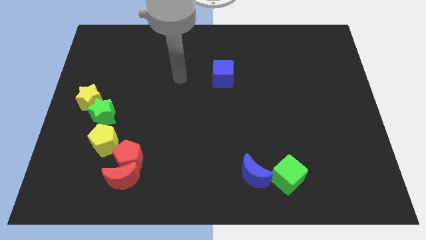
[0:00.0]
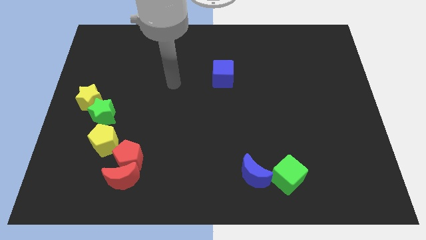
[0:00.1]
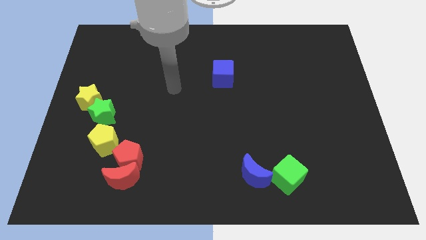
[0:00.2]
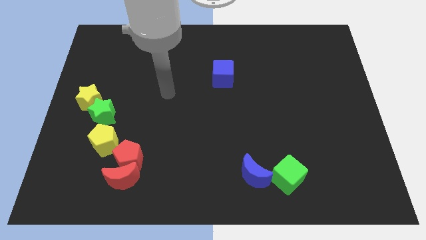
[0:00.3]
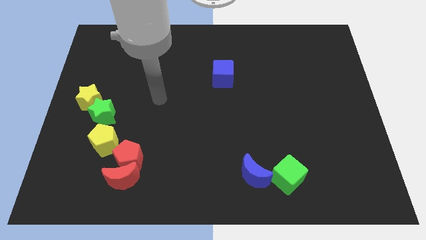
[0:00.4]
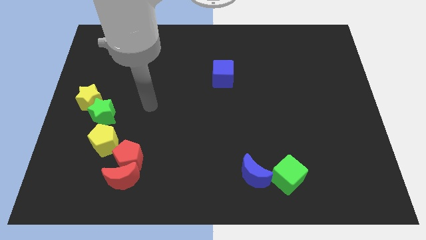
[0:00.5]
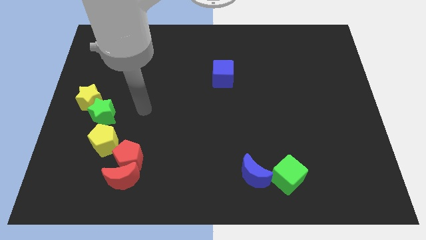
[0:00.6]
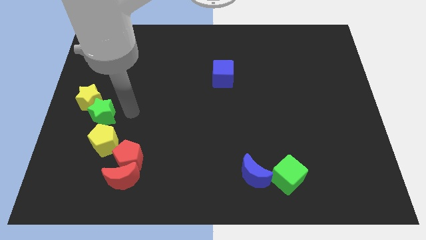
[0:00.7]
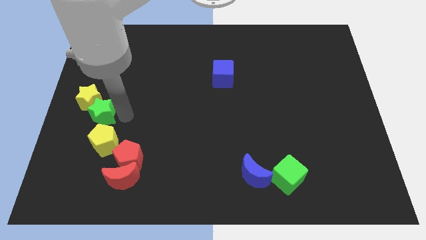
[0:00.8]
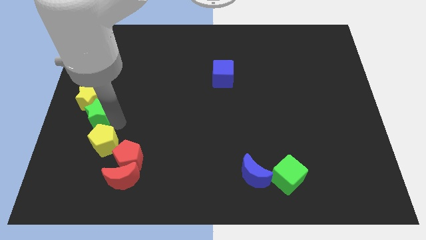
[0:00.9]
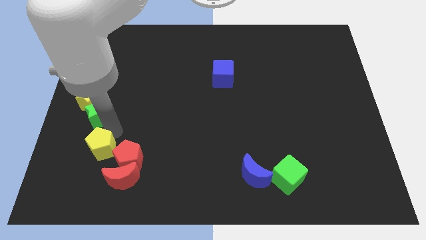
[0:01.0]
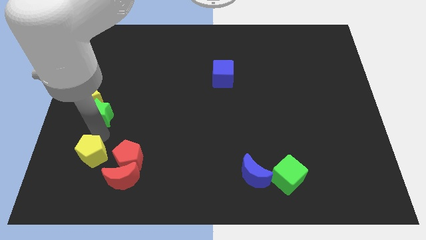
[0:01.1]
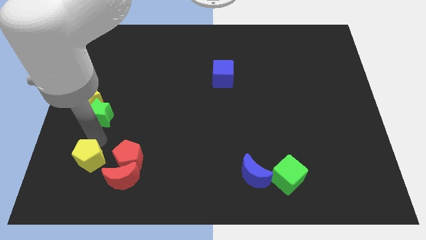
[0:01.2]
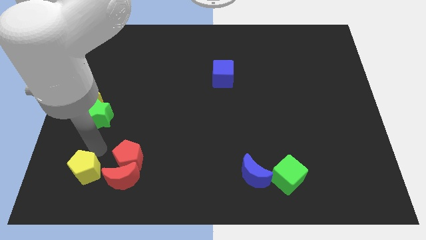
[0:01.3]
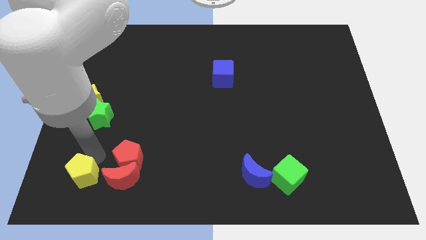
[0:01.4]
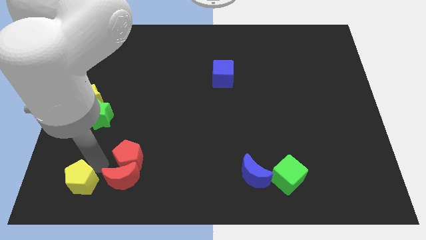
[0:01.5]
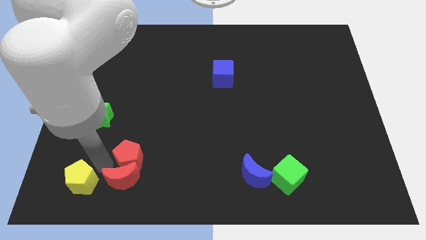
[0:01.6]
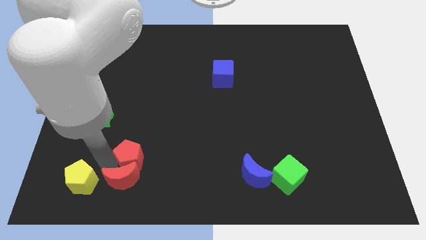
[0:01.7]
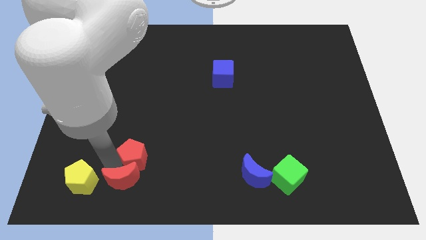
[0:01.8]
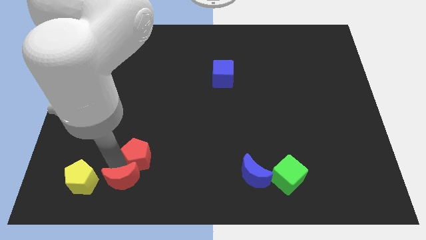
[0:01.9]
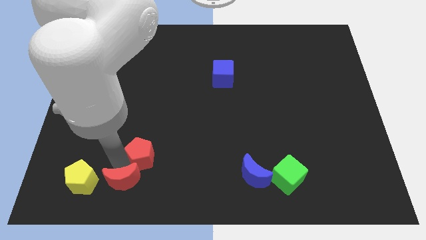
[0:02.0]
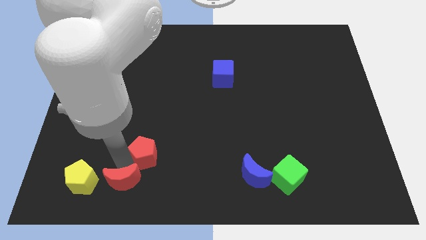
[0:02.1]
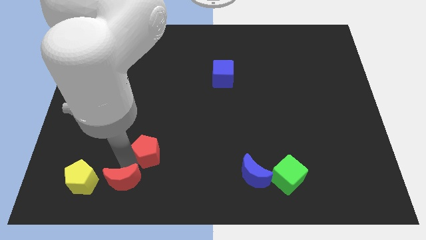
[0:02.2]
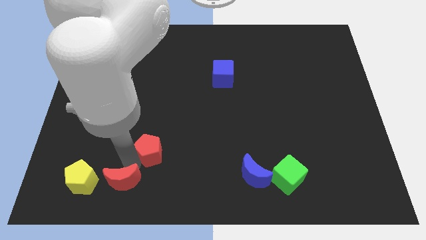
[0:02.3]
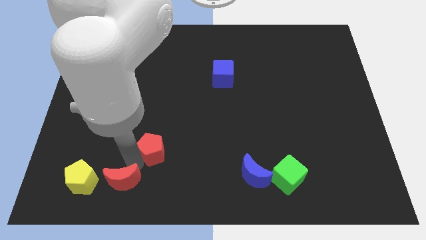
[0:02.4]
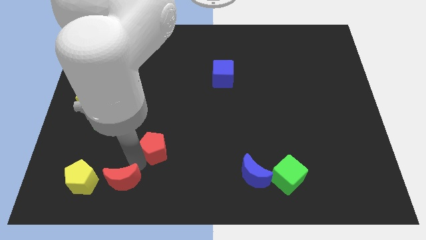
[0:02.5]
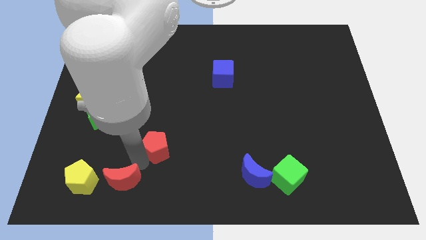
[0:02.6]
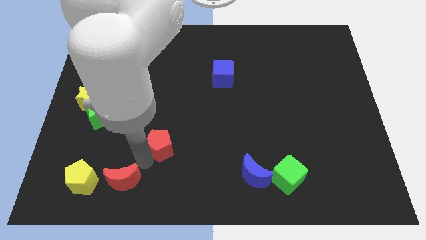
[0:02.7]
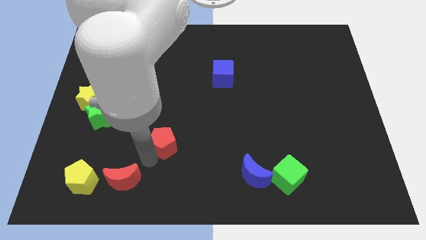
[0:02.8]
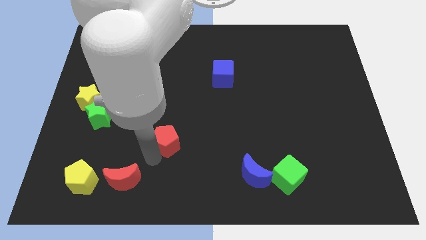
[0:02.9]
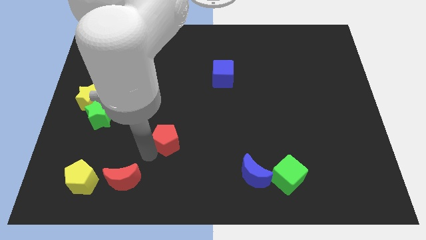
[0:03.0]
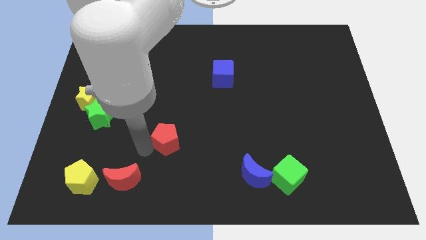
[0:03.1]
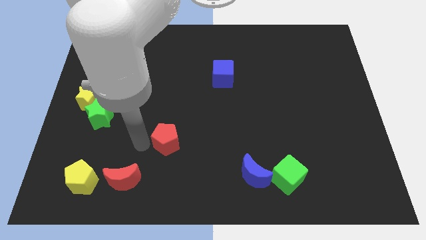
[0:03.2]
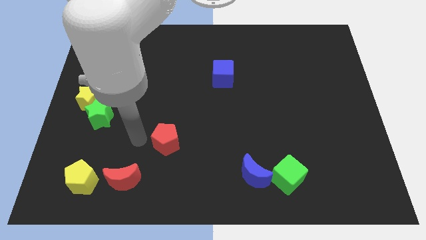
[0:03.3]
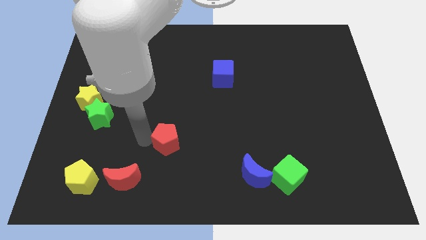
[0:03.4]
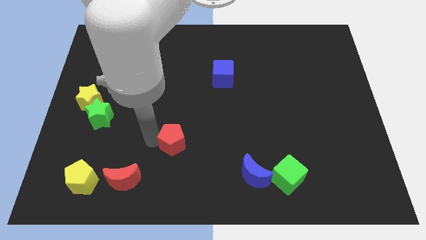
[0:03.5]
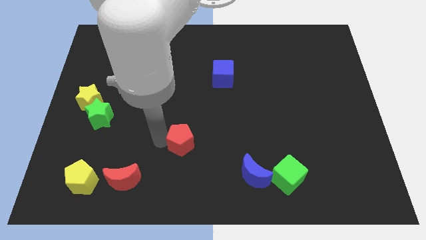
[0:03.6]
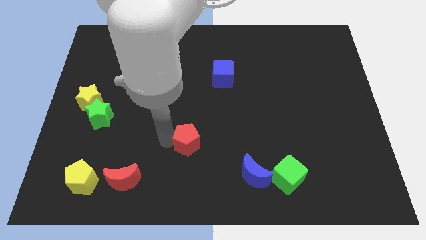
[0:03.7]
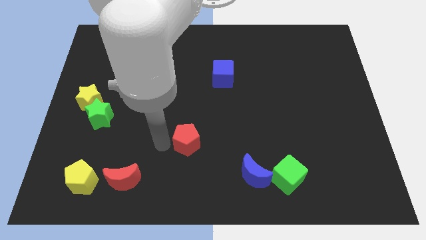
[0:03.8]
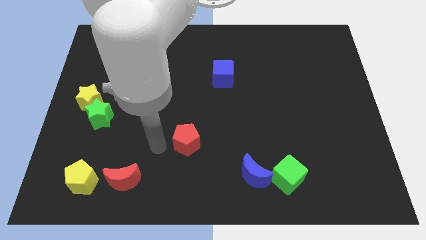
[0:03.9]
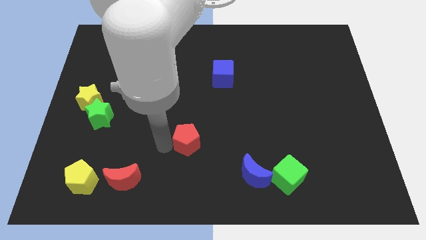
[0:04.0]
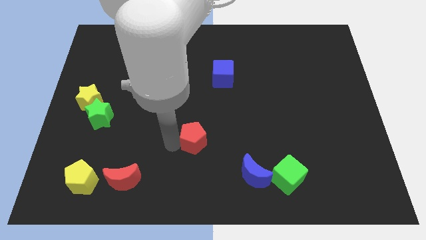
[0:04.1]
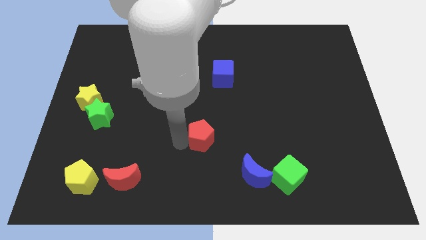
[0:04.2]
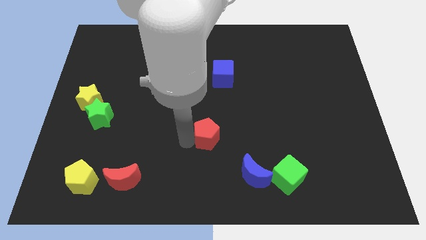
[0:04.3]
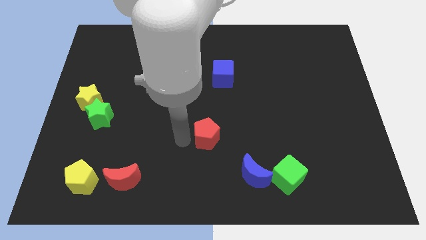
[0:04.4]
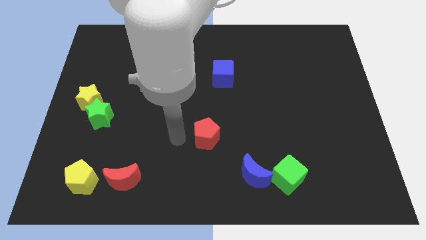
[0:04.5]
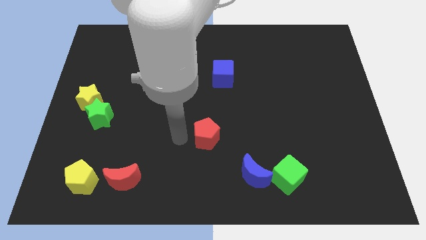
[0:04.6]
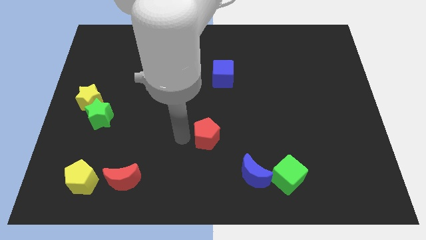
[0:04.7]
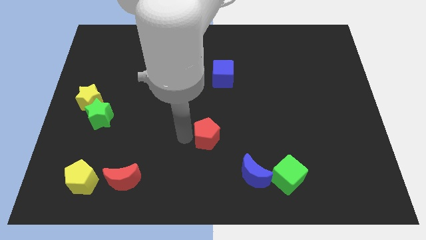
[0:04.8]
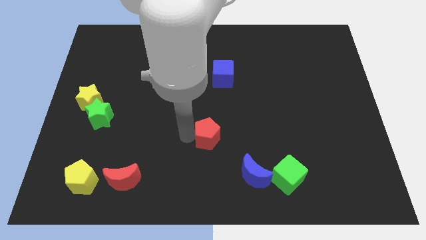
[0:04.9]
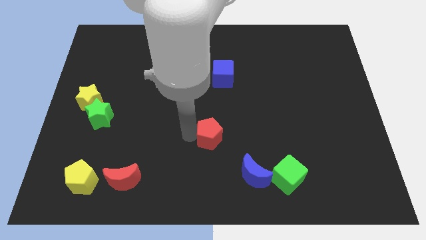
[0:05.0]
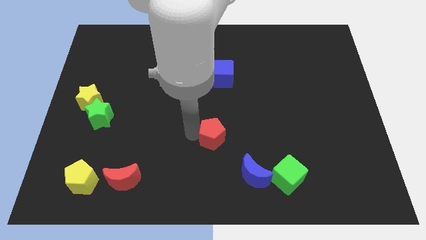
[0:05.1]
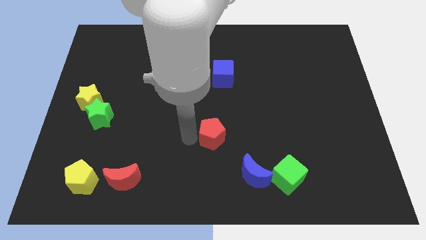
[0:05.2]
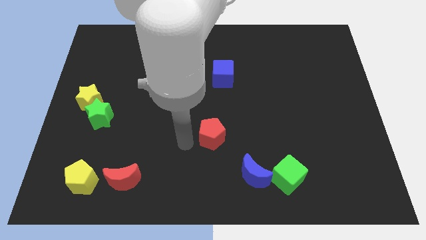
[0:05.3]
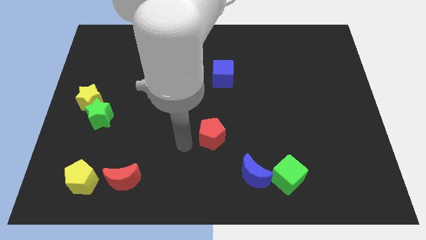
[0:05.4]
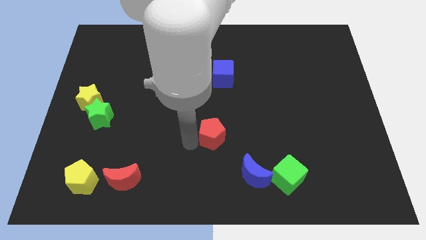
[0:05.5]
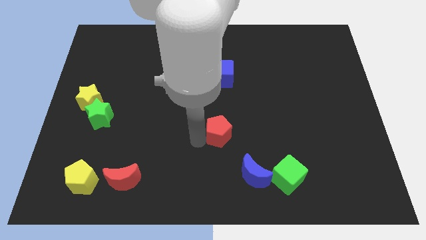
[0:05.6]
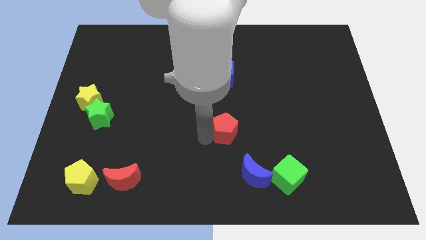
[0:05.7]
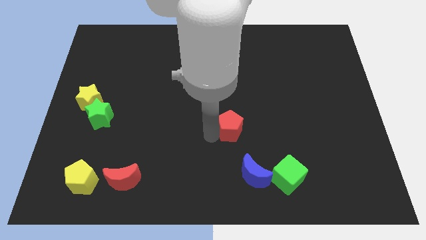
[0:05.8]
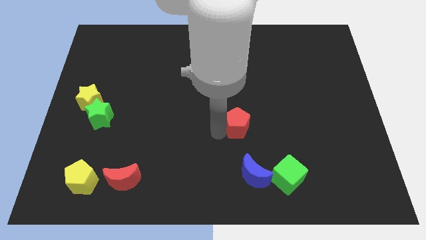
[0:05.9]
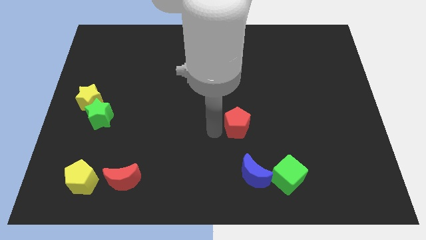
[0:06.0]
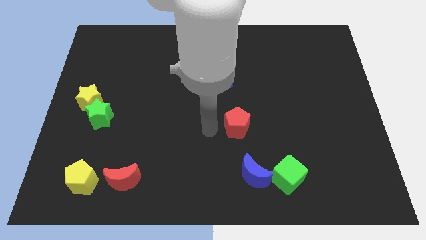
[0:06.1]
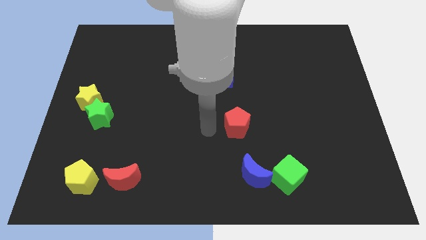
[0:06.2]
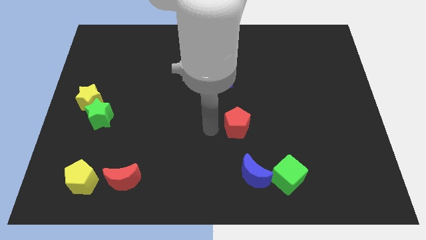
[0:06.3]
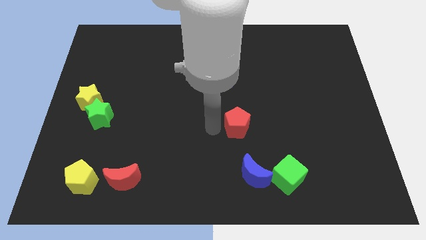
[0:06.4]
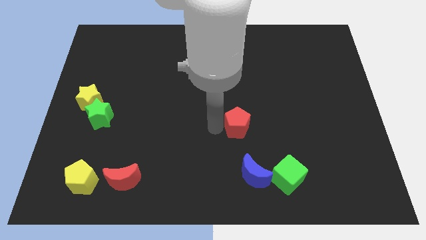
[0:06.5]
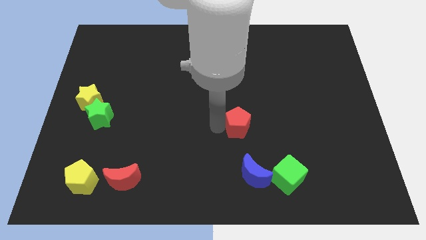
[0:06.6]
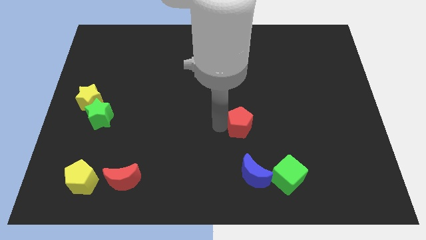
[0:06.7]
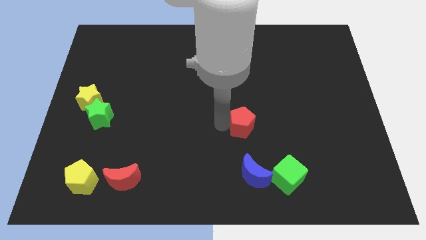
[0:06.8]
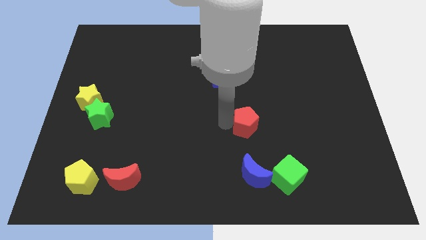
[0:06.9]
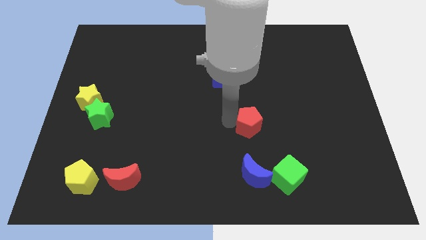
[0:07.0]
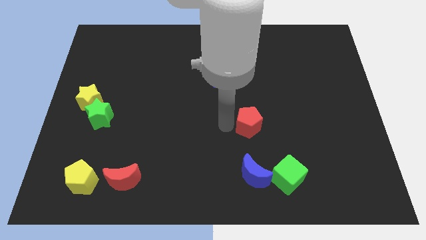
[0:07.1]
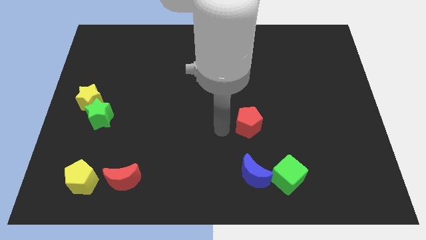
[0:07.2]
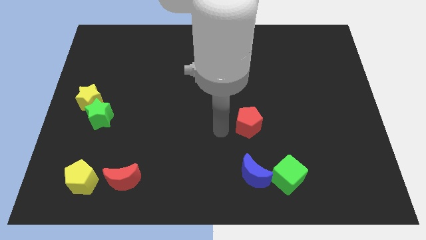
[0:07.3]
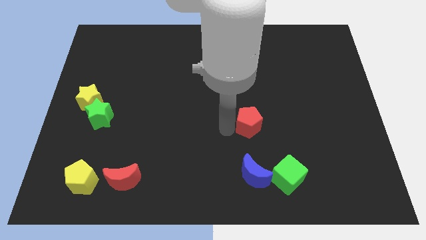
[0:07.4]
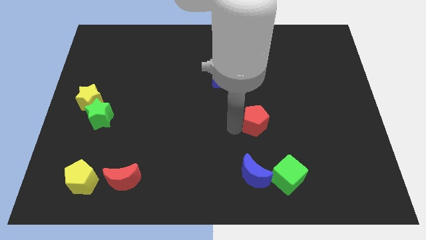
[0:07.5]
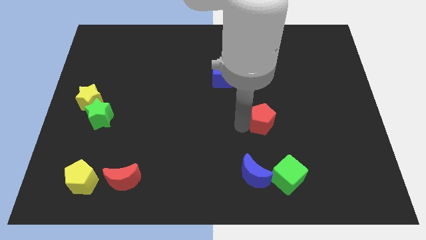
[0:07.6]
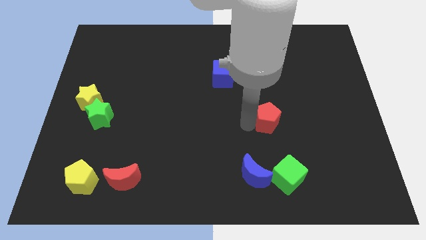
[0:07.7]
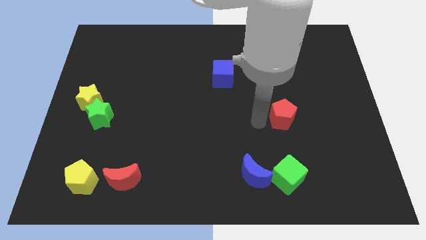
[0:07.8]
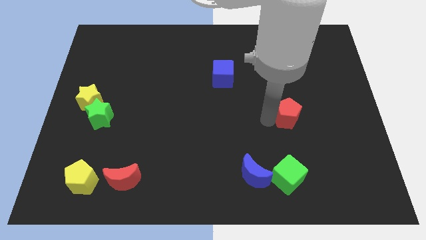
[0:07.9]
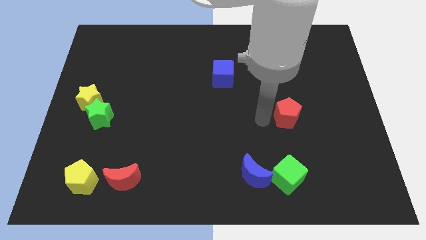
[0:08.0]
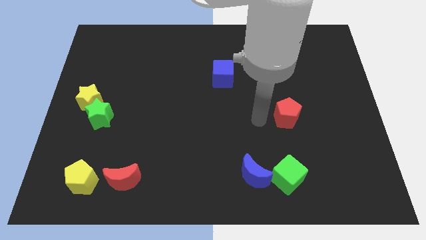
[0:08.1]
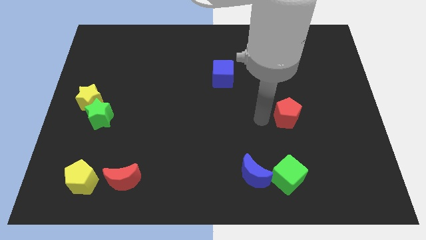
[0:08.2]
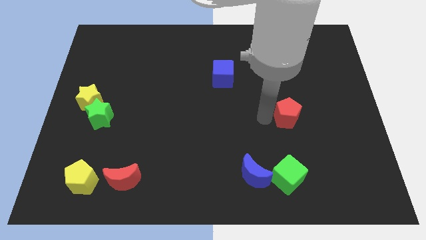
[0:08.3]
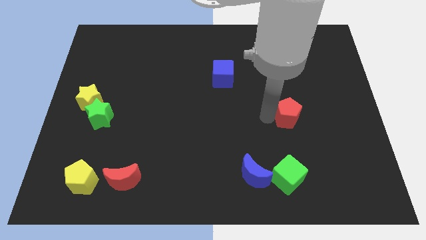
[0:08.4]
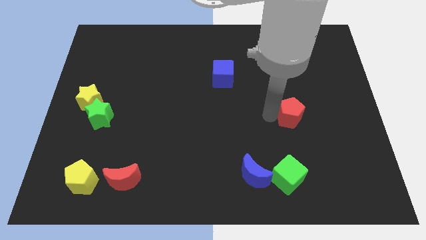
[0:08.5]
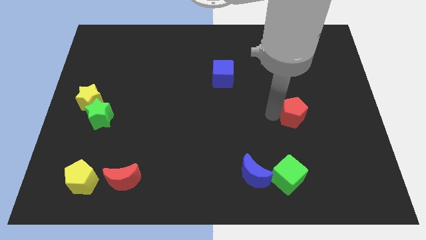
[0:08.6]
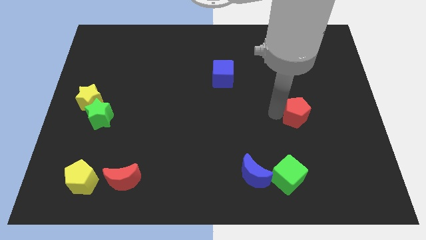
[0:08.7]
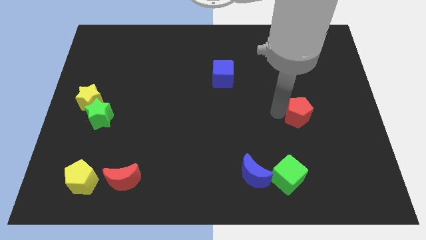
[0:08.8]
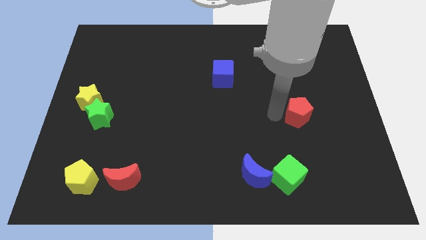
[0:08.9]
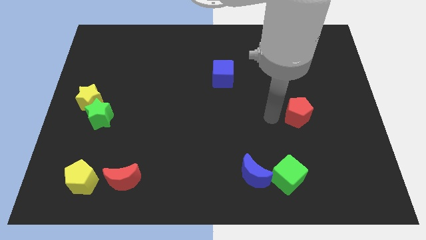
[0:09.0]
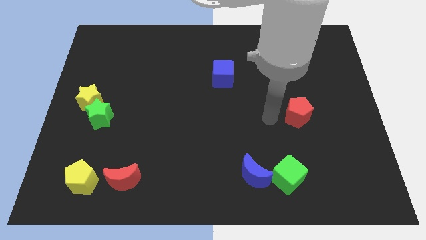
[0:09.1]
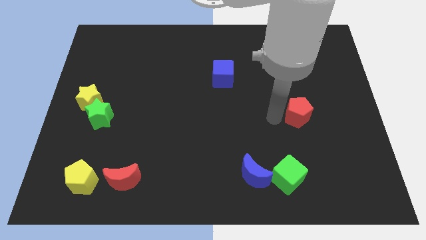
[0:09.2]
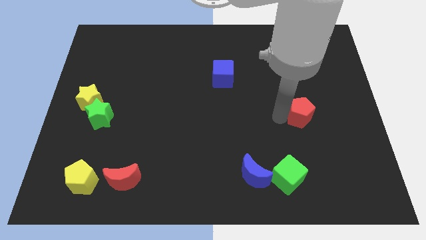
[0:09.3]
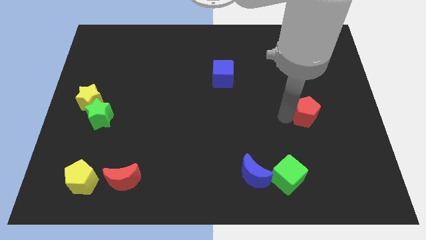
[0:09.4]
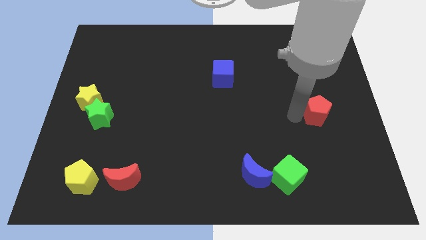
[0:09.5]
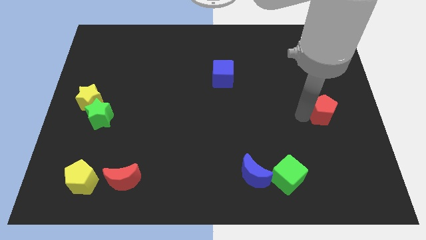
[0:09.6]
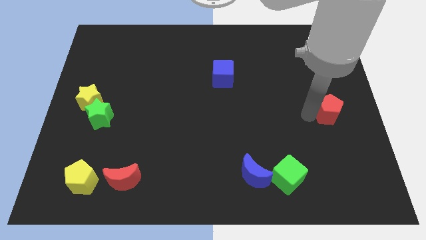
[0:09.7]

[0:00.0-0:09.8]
slide the red pentagon to the right side
